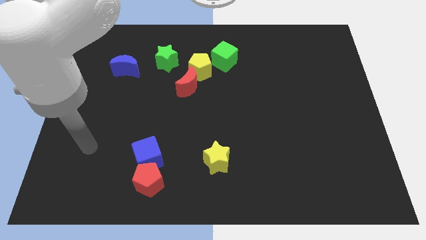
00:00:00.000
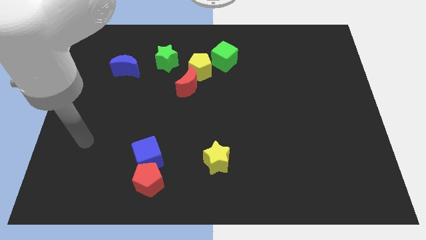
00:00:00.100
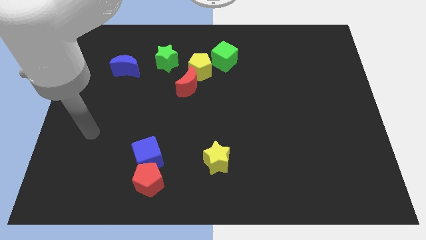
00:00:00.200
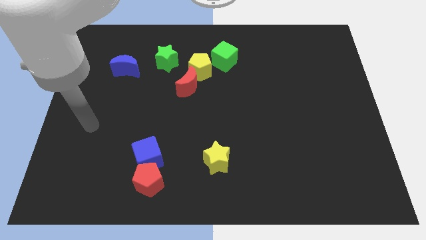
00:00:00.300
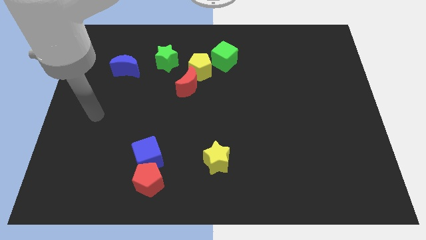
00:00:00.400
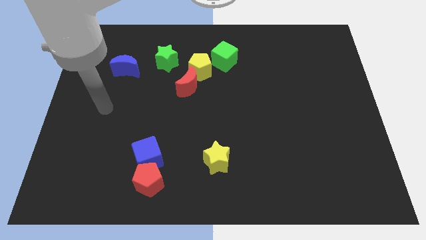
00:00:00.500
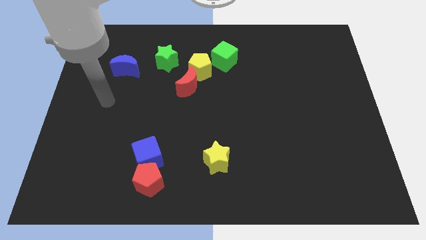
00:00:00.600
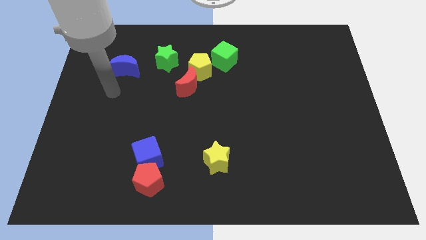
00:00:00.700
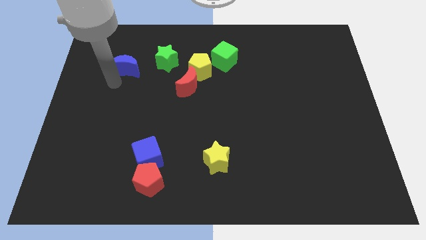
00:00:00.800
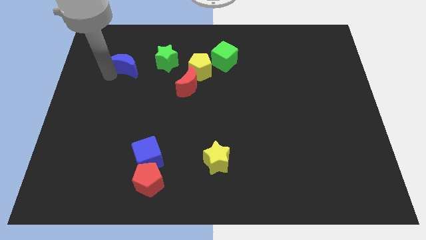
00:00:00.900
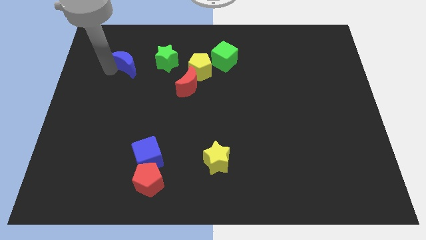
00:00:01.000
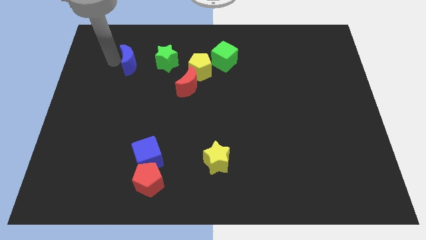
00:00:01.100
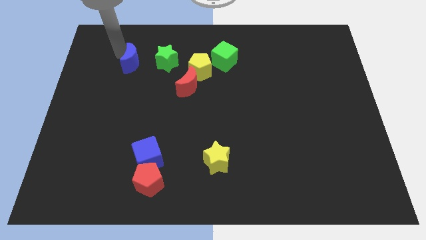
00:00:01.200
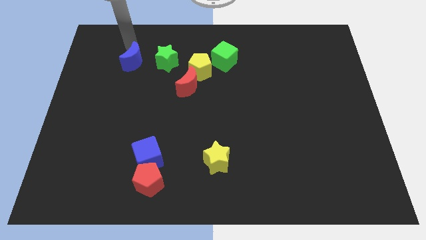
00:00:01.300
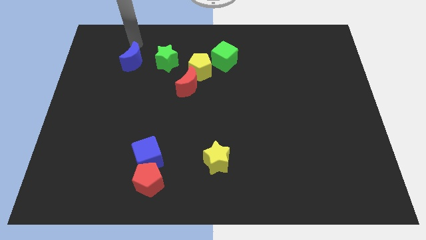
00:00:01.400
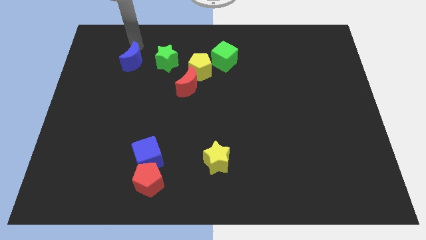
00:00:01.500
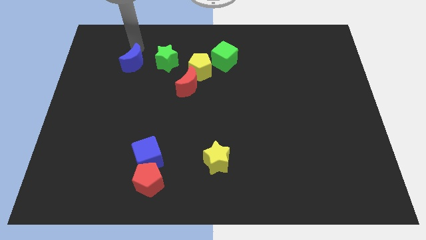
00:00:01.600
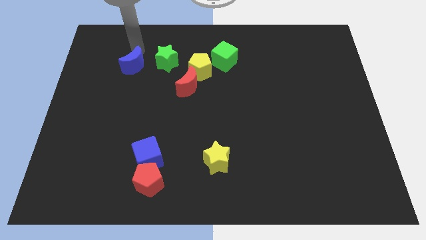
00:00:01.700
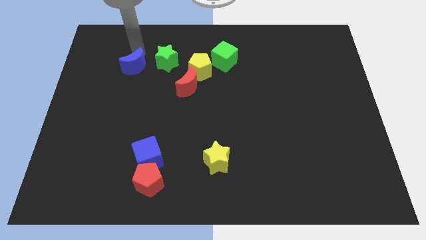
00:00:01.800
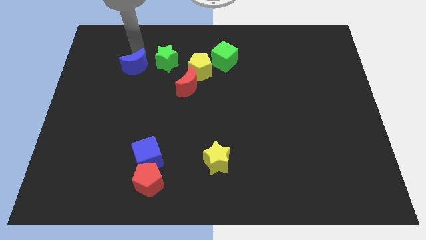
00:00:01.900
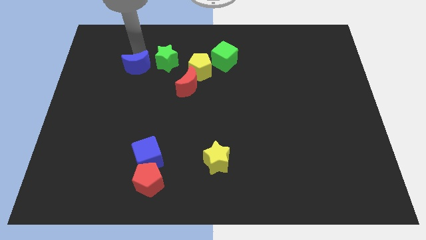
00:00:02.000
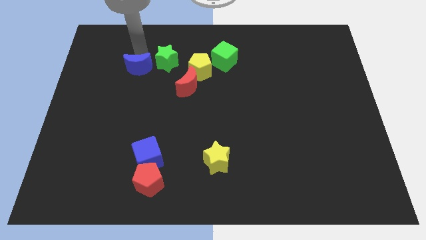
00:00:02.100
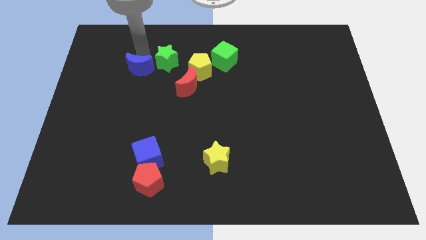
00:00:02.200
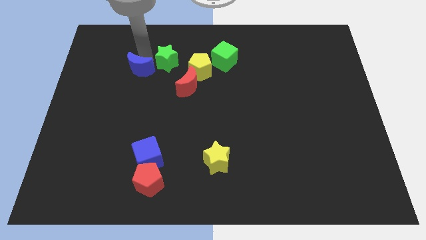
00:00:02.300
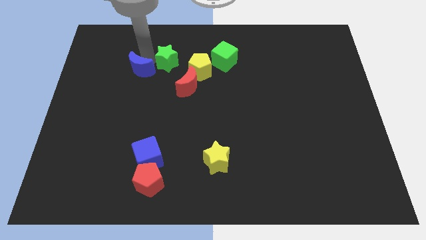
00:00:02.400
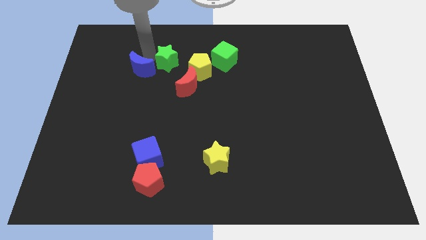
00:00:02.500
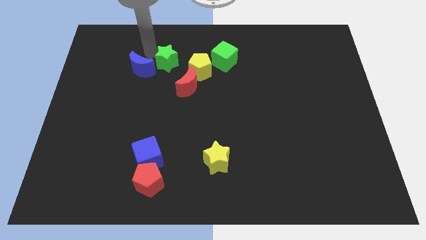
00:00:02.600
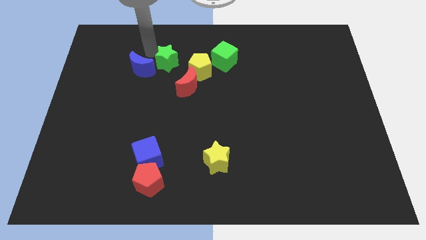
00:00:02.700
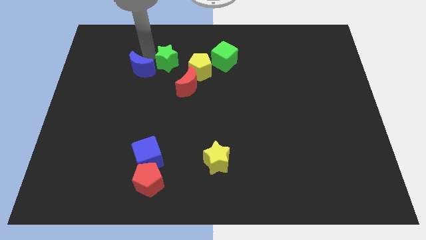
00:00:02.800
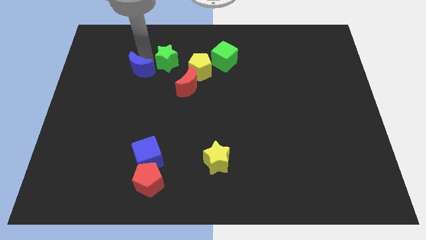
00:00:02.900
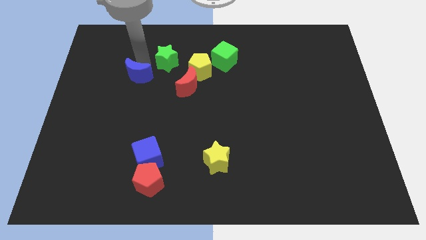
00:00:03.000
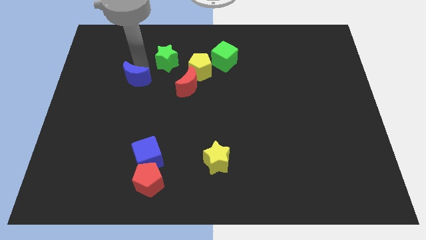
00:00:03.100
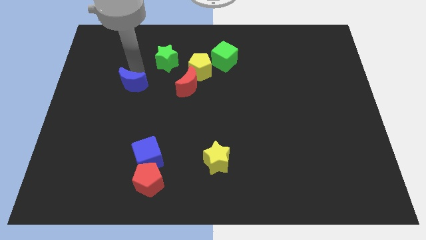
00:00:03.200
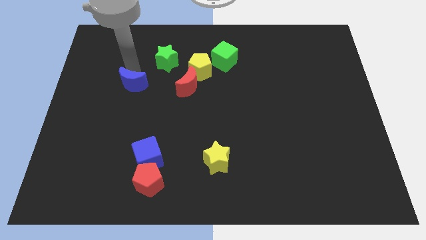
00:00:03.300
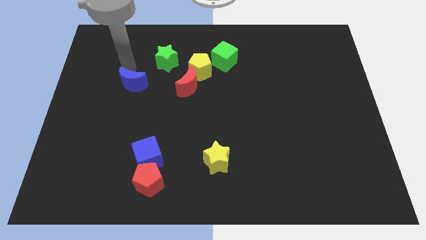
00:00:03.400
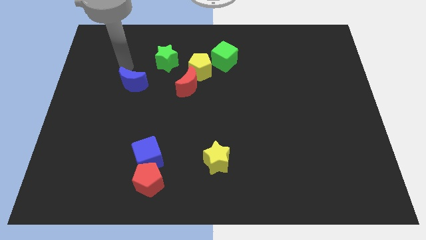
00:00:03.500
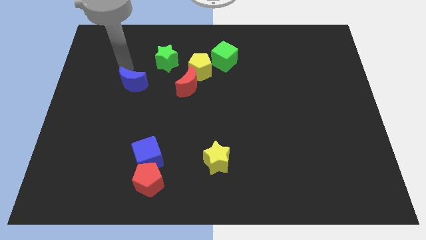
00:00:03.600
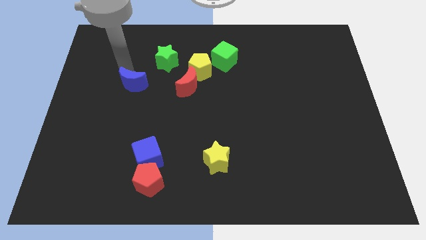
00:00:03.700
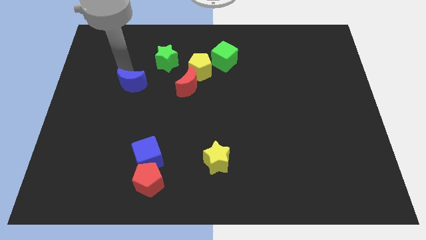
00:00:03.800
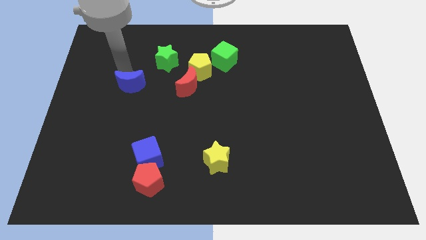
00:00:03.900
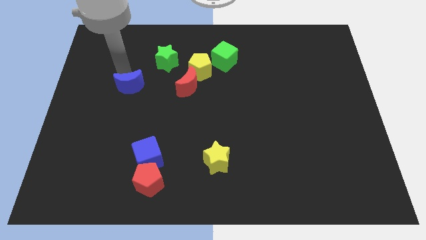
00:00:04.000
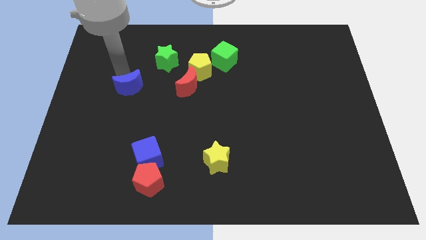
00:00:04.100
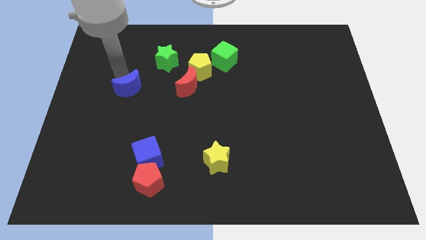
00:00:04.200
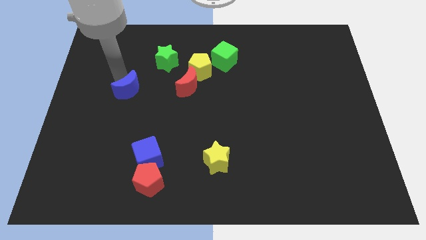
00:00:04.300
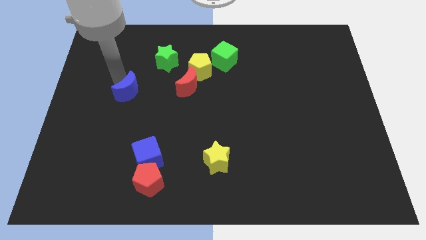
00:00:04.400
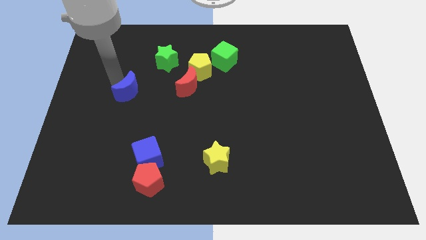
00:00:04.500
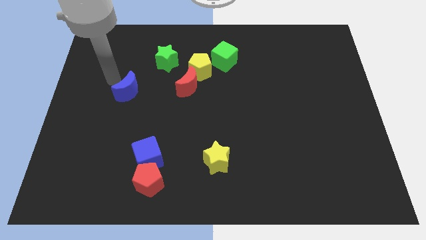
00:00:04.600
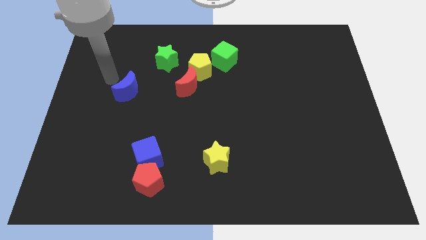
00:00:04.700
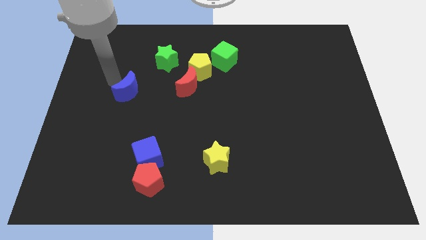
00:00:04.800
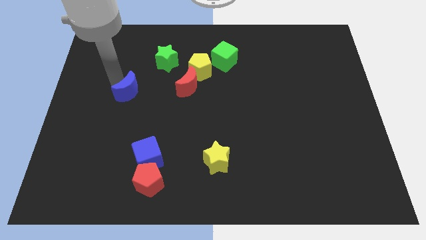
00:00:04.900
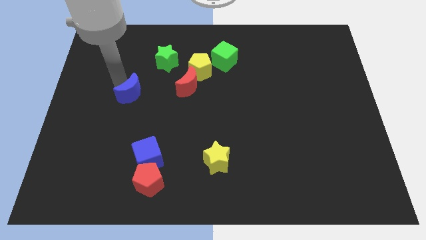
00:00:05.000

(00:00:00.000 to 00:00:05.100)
move the blue moon slightly diagonally down and to the right

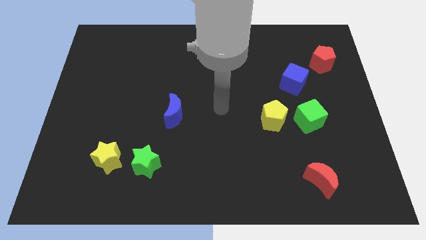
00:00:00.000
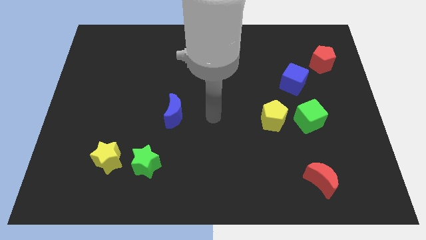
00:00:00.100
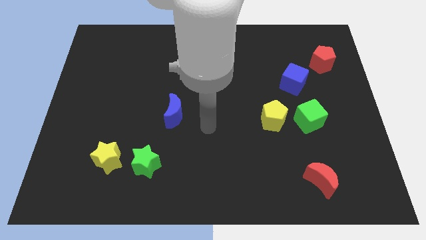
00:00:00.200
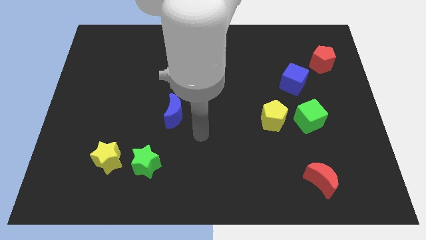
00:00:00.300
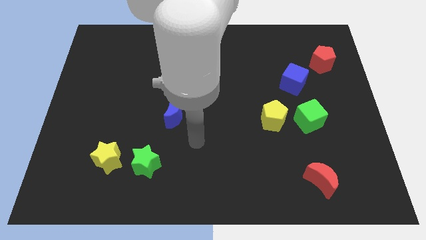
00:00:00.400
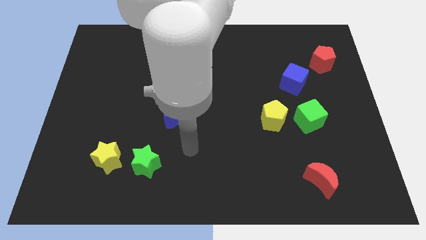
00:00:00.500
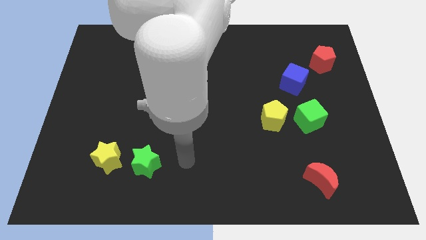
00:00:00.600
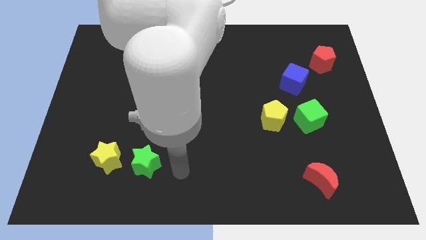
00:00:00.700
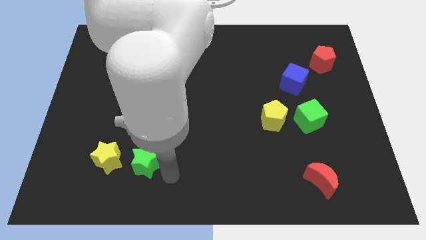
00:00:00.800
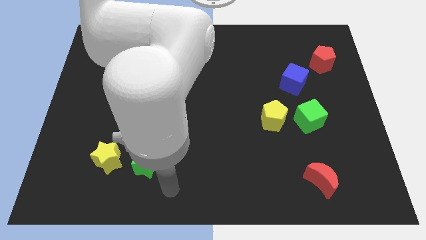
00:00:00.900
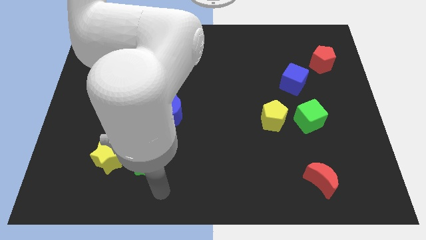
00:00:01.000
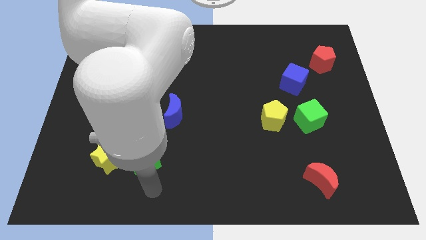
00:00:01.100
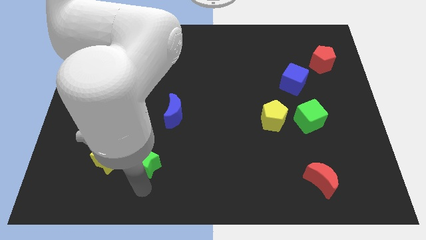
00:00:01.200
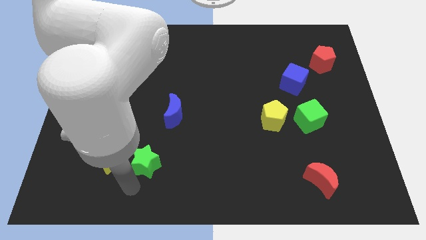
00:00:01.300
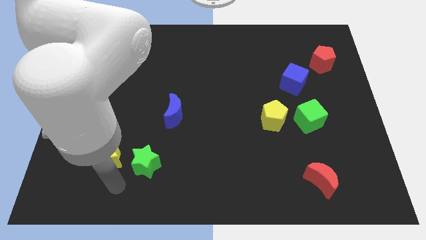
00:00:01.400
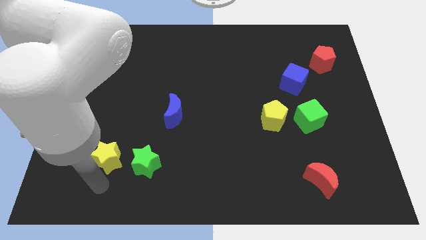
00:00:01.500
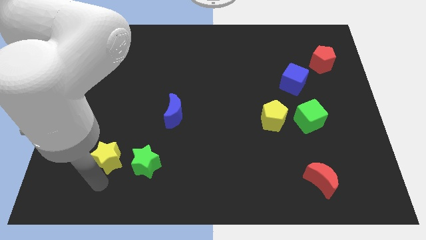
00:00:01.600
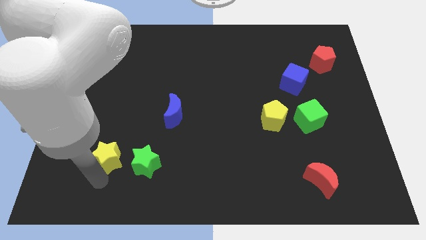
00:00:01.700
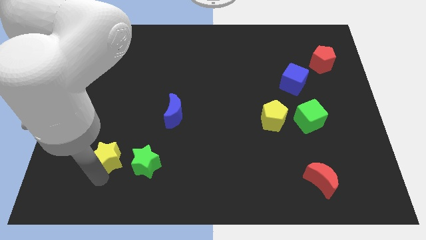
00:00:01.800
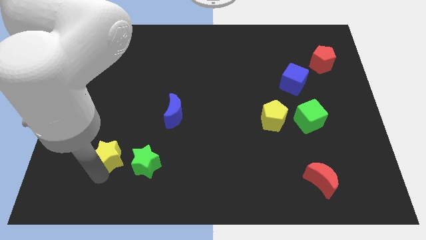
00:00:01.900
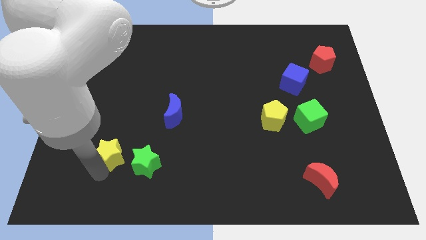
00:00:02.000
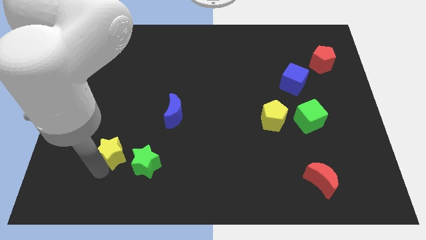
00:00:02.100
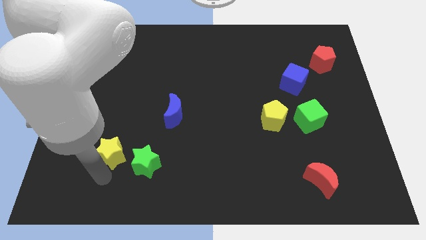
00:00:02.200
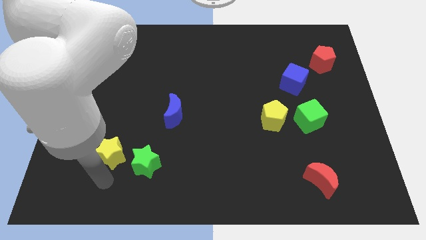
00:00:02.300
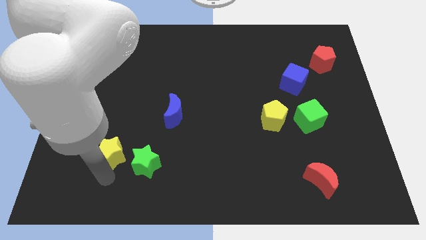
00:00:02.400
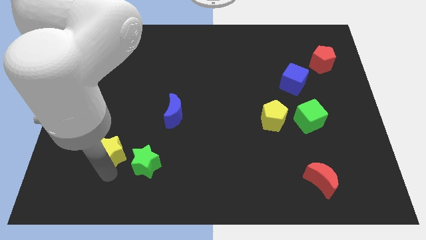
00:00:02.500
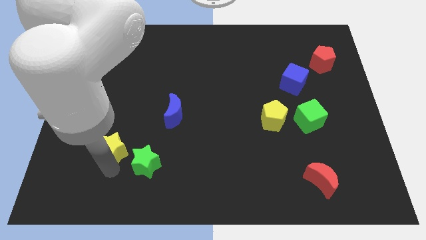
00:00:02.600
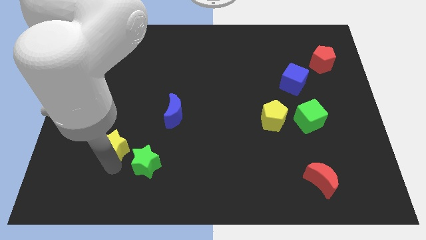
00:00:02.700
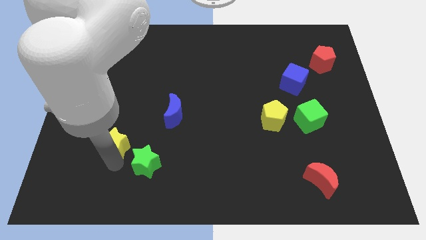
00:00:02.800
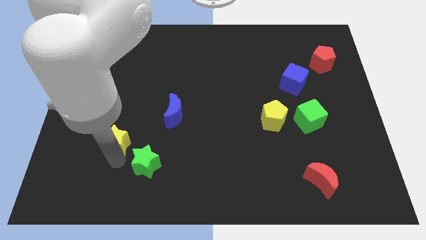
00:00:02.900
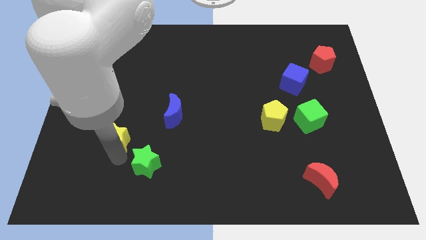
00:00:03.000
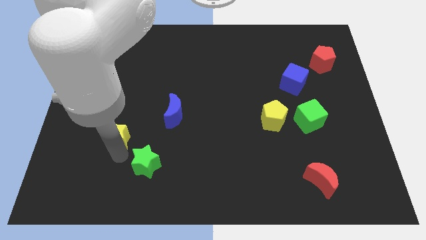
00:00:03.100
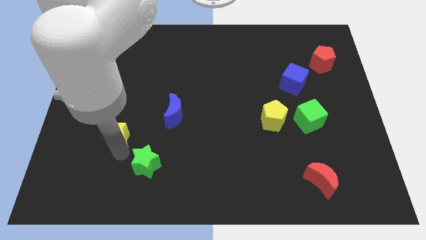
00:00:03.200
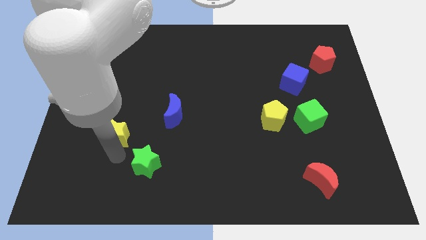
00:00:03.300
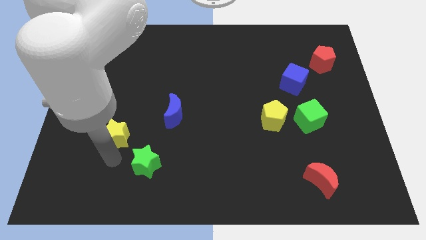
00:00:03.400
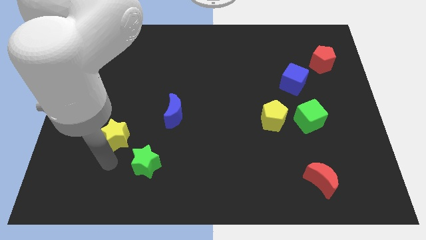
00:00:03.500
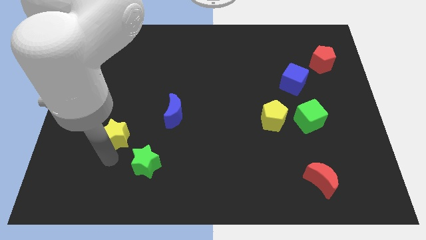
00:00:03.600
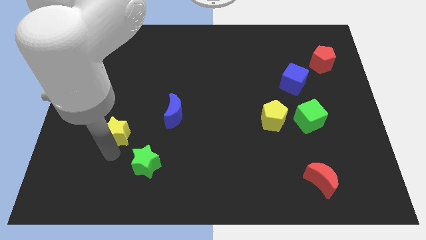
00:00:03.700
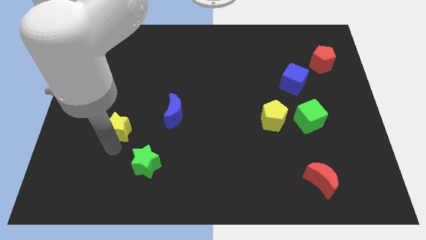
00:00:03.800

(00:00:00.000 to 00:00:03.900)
slightly move the yellow star upwards
